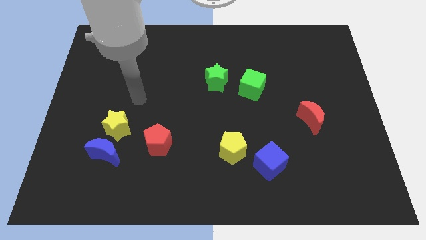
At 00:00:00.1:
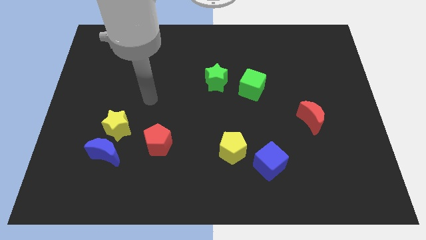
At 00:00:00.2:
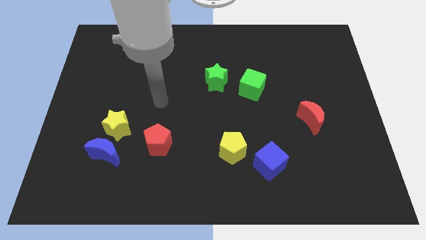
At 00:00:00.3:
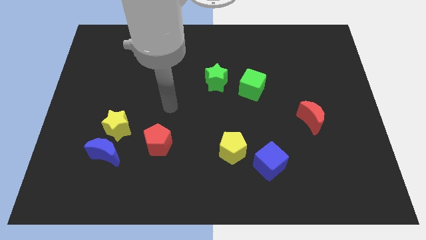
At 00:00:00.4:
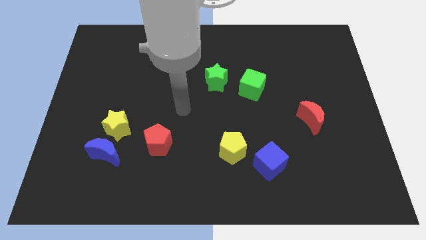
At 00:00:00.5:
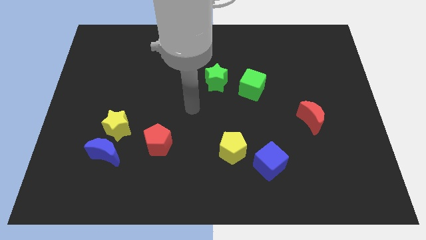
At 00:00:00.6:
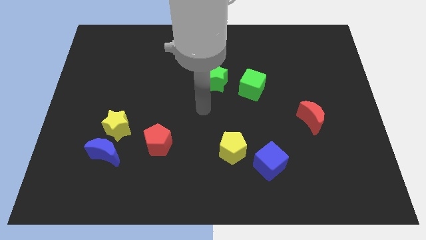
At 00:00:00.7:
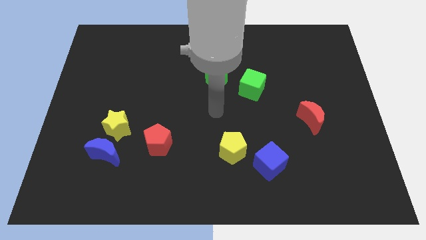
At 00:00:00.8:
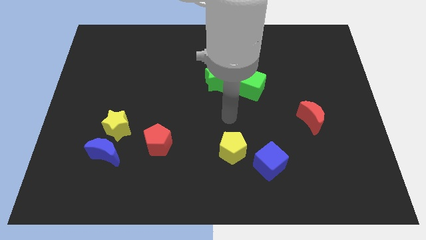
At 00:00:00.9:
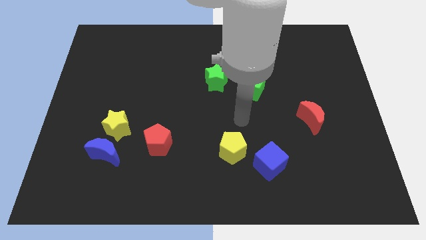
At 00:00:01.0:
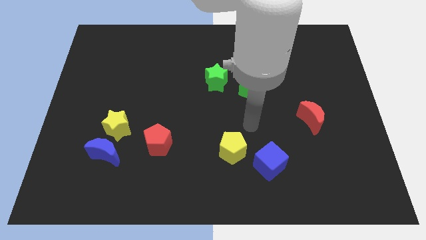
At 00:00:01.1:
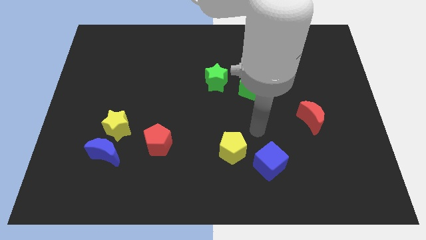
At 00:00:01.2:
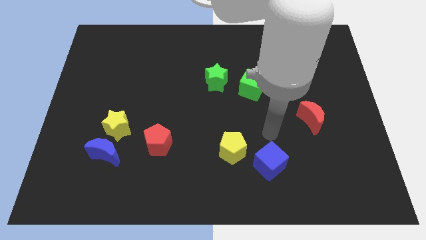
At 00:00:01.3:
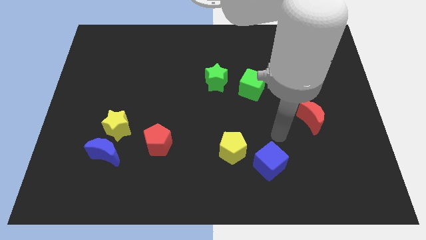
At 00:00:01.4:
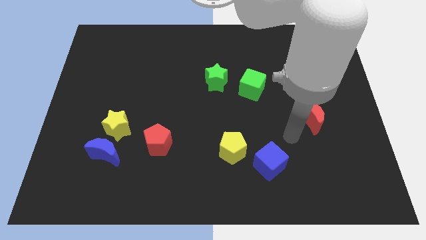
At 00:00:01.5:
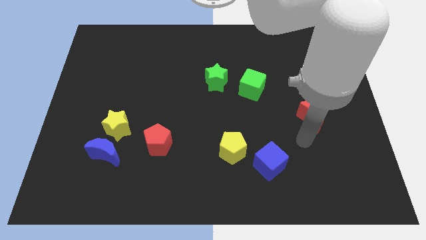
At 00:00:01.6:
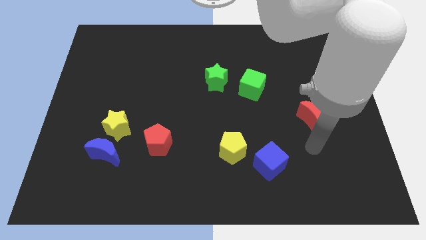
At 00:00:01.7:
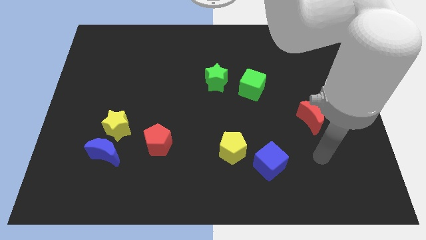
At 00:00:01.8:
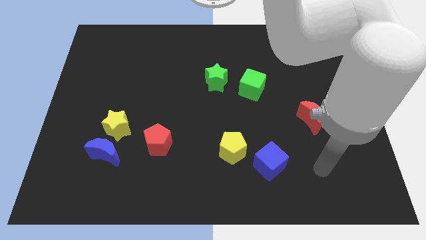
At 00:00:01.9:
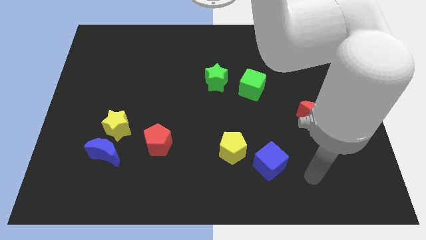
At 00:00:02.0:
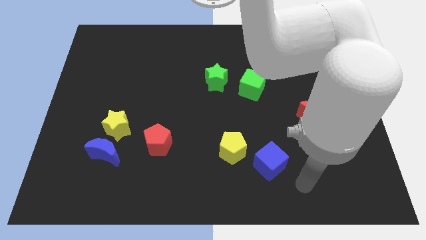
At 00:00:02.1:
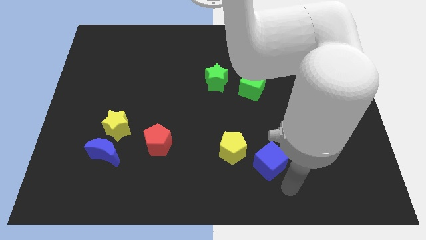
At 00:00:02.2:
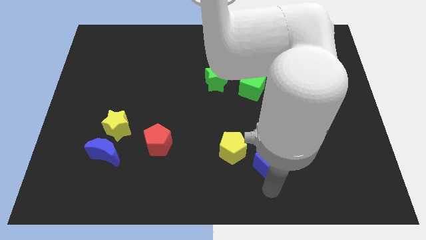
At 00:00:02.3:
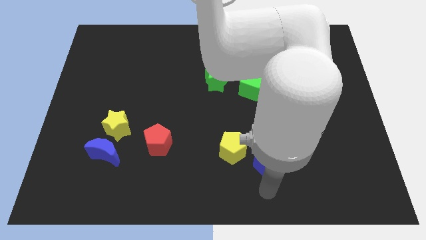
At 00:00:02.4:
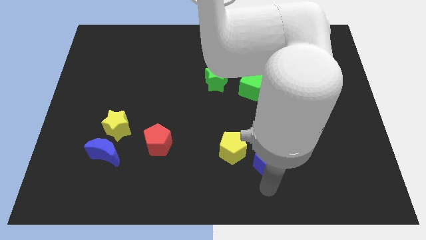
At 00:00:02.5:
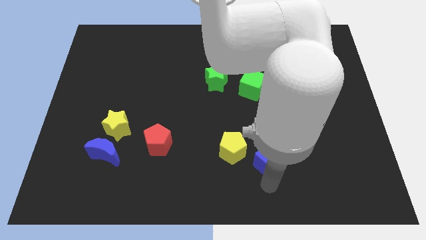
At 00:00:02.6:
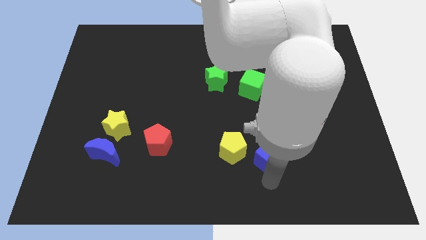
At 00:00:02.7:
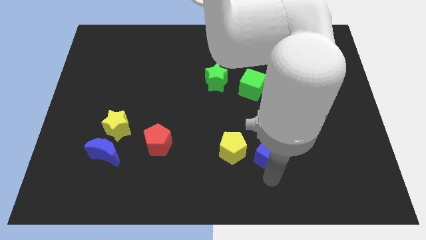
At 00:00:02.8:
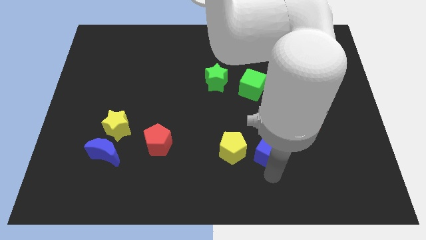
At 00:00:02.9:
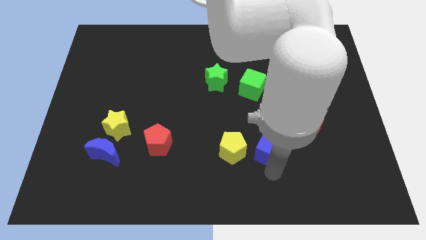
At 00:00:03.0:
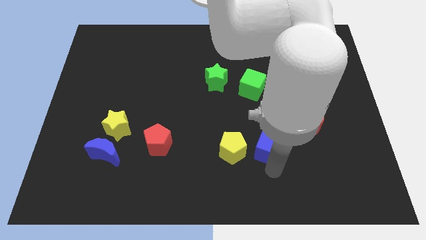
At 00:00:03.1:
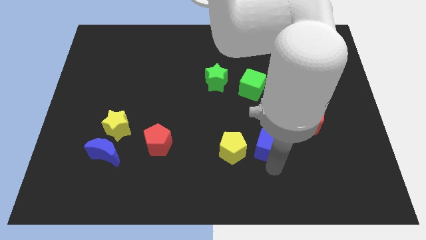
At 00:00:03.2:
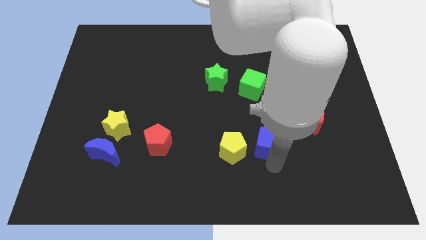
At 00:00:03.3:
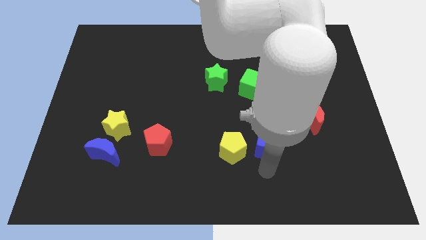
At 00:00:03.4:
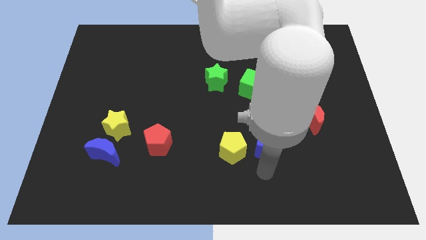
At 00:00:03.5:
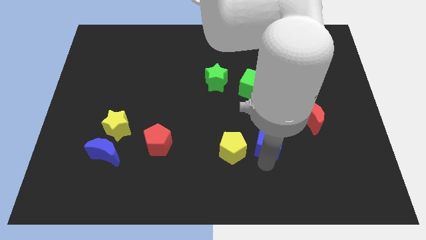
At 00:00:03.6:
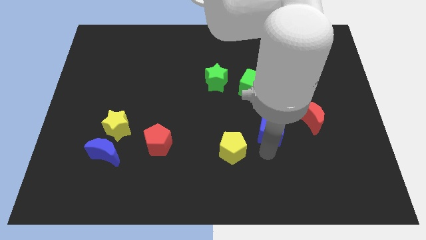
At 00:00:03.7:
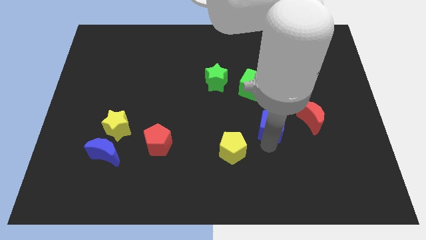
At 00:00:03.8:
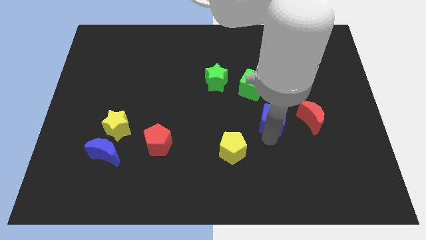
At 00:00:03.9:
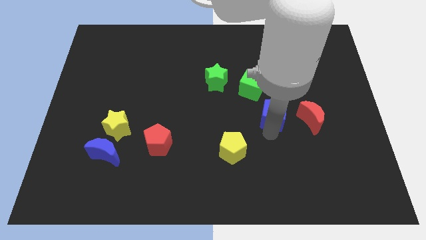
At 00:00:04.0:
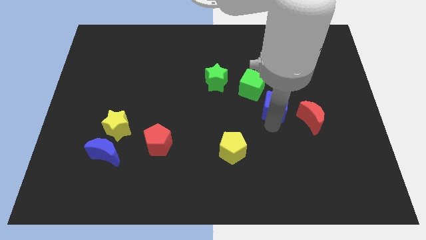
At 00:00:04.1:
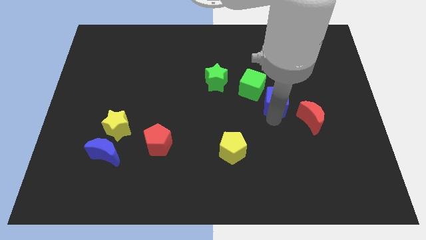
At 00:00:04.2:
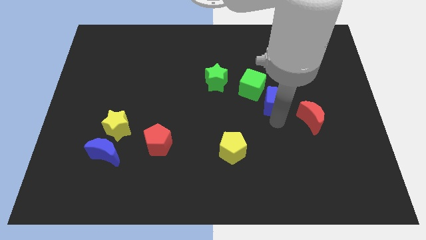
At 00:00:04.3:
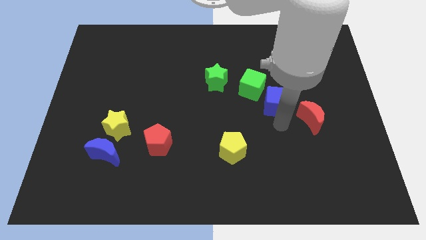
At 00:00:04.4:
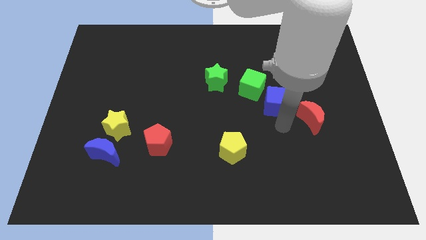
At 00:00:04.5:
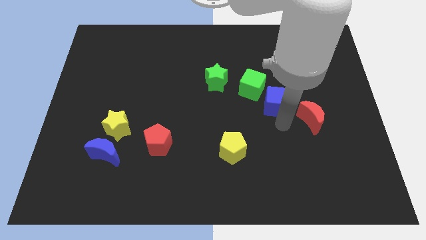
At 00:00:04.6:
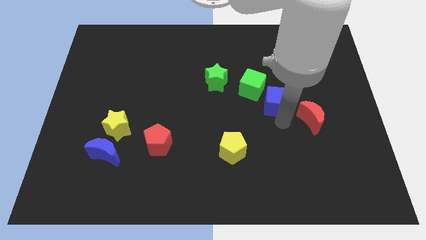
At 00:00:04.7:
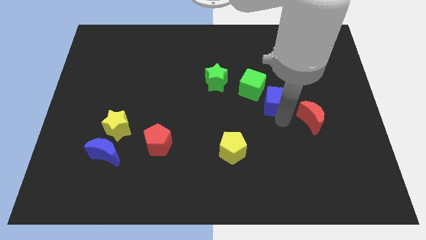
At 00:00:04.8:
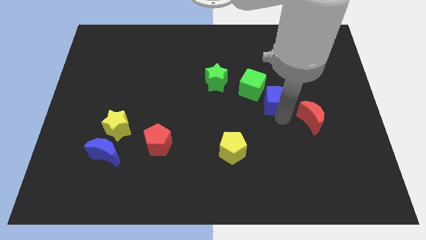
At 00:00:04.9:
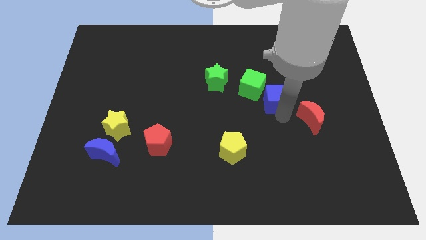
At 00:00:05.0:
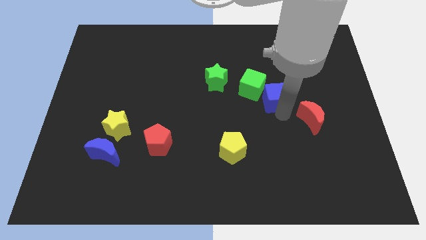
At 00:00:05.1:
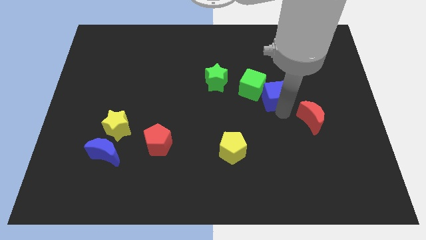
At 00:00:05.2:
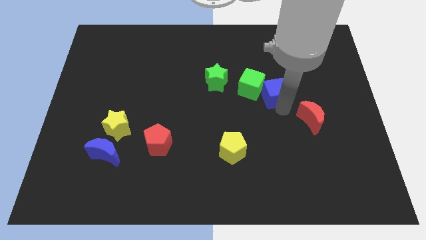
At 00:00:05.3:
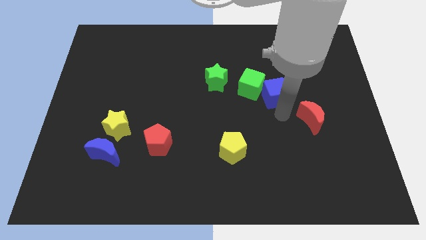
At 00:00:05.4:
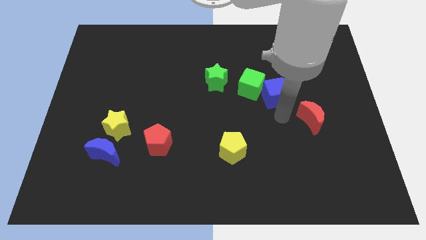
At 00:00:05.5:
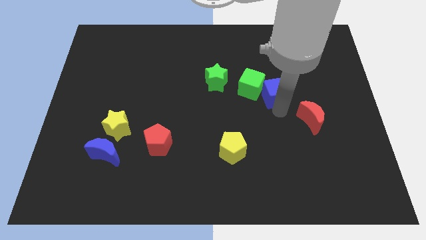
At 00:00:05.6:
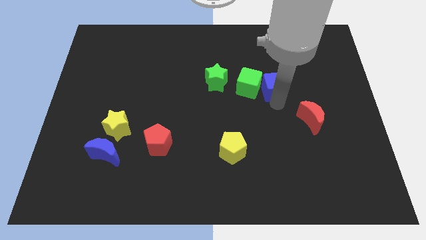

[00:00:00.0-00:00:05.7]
push the blue cube upwards

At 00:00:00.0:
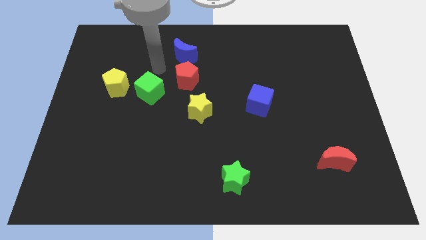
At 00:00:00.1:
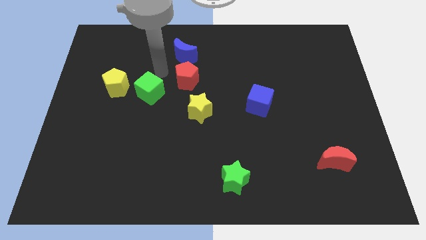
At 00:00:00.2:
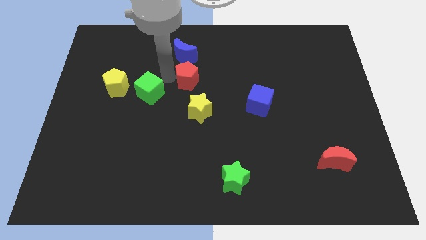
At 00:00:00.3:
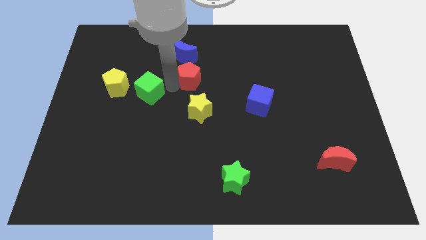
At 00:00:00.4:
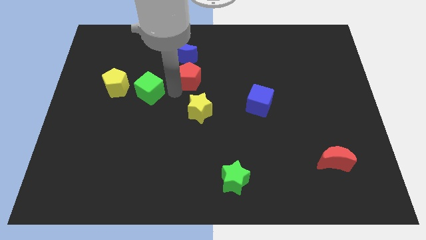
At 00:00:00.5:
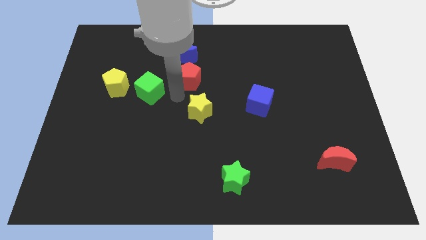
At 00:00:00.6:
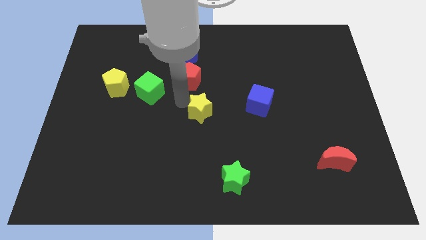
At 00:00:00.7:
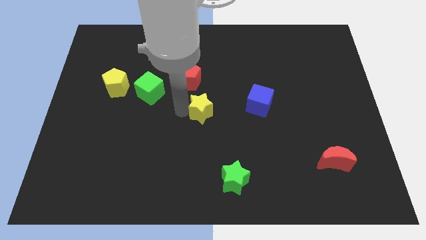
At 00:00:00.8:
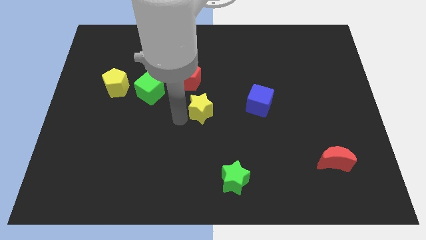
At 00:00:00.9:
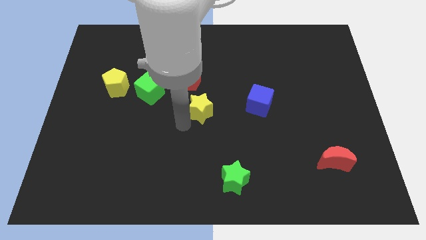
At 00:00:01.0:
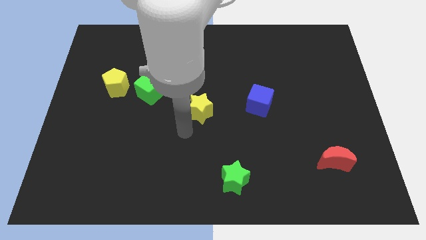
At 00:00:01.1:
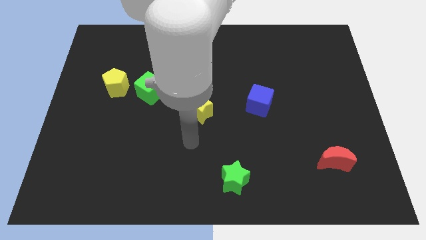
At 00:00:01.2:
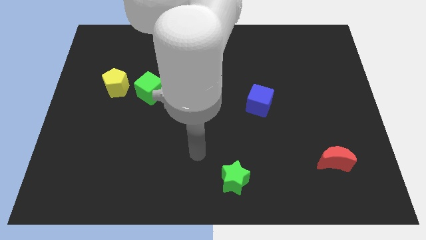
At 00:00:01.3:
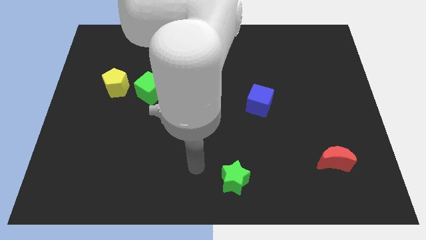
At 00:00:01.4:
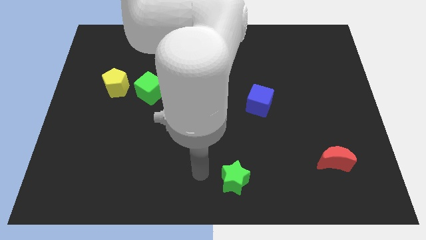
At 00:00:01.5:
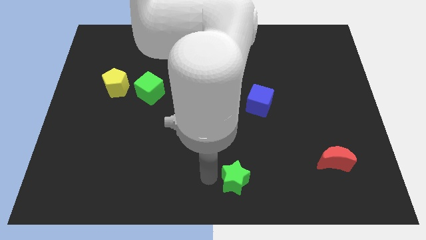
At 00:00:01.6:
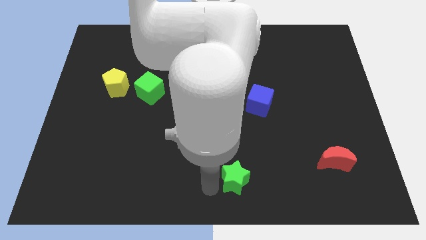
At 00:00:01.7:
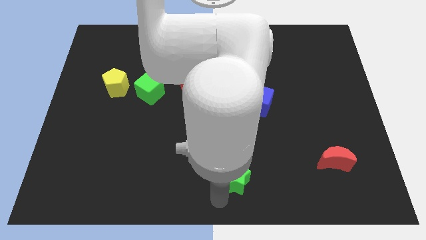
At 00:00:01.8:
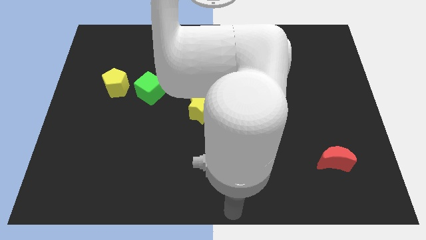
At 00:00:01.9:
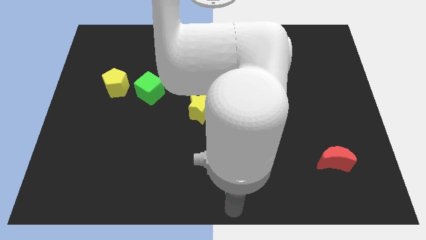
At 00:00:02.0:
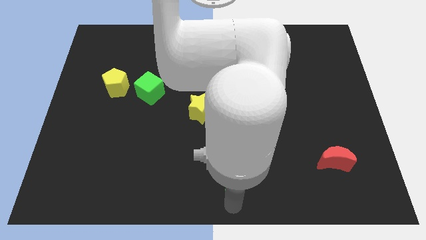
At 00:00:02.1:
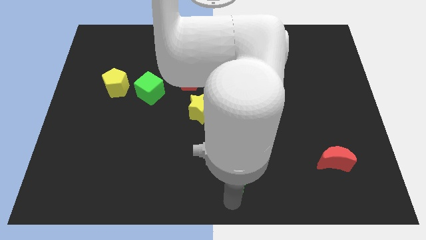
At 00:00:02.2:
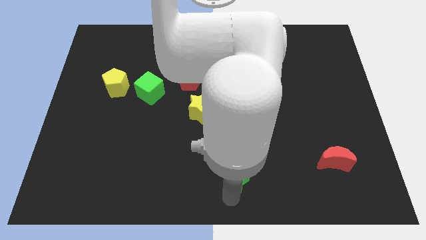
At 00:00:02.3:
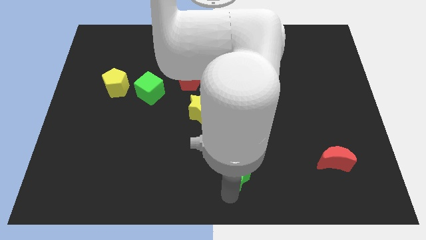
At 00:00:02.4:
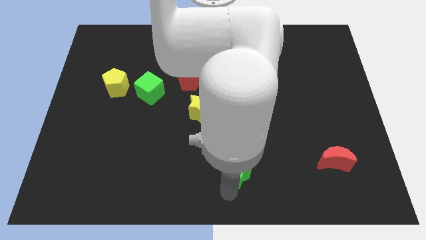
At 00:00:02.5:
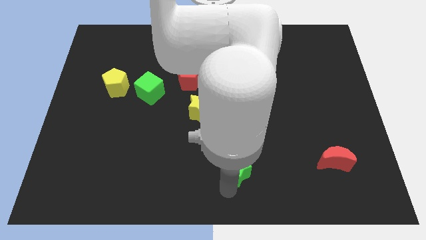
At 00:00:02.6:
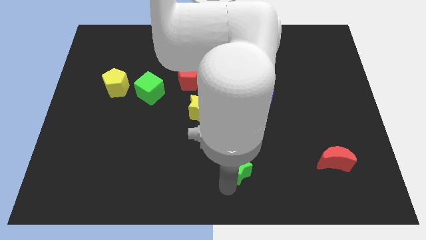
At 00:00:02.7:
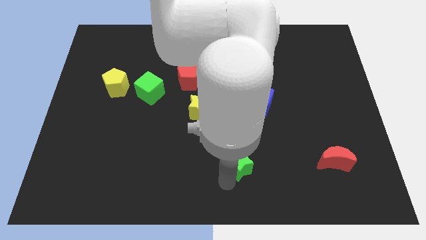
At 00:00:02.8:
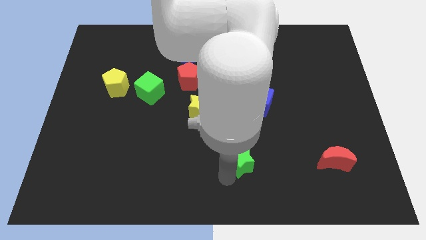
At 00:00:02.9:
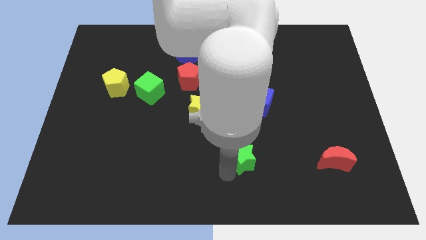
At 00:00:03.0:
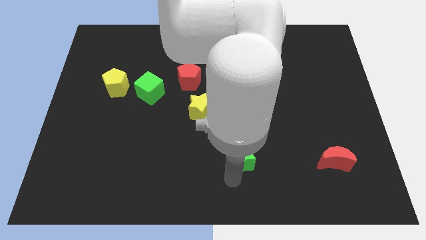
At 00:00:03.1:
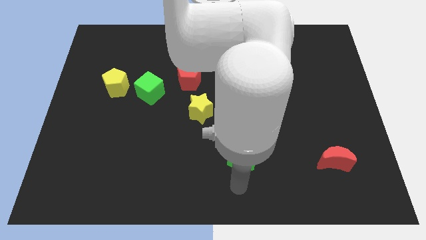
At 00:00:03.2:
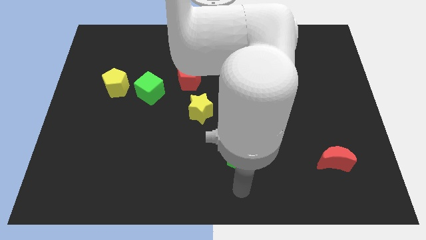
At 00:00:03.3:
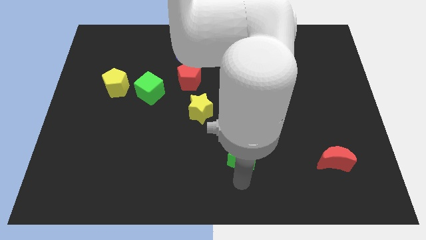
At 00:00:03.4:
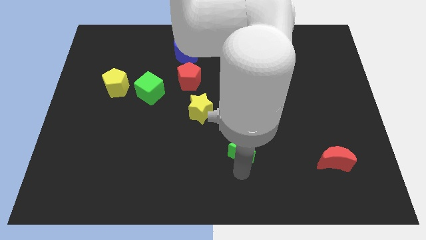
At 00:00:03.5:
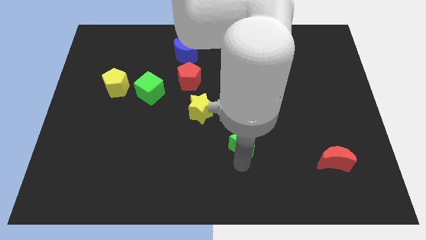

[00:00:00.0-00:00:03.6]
move the green star slightly up
